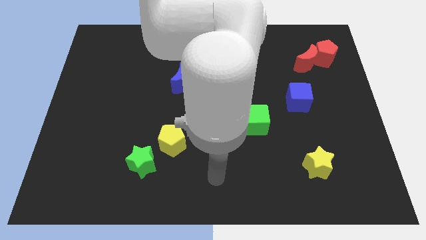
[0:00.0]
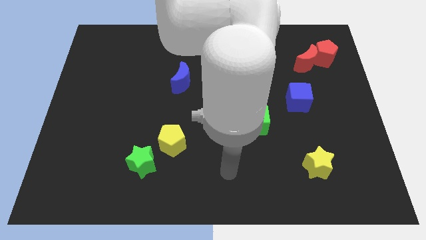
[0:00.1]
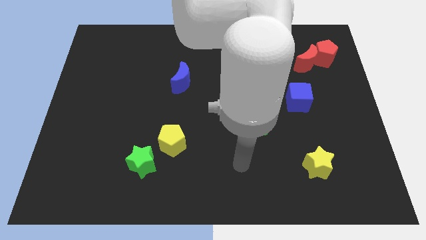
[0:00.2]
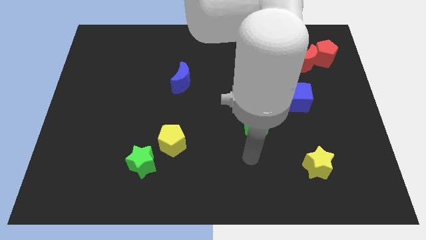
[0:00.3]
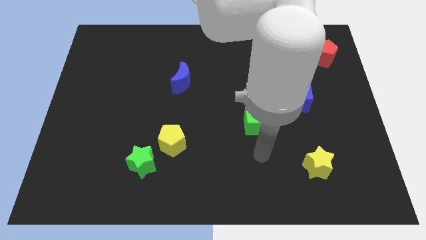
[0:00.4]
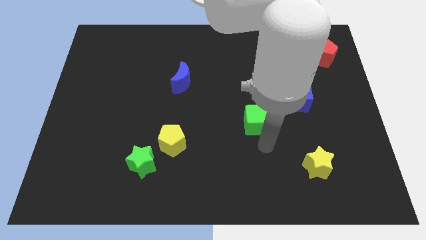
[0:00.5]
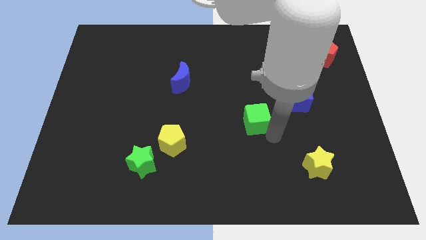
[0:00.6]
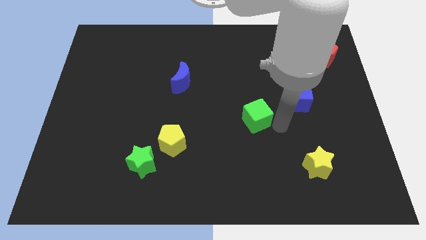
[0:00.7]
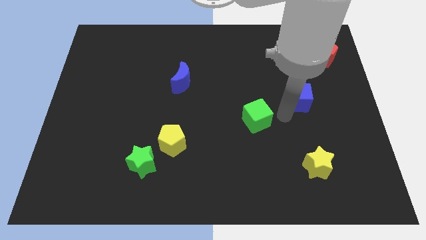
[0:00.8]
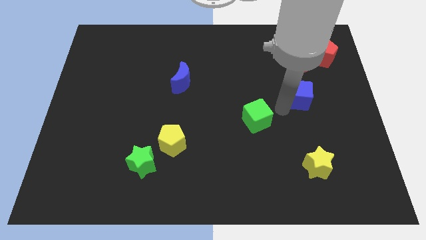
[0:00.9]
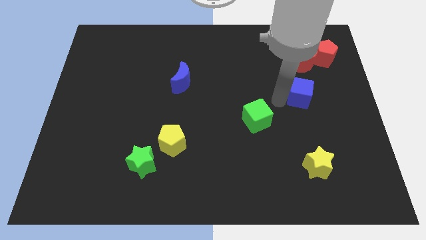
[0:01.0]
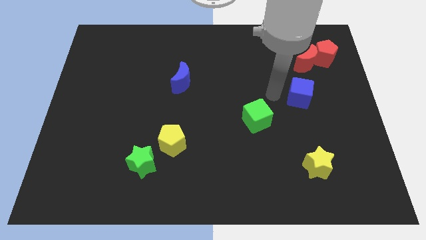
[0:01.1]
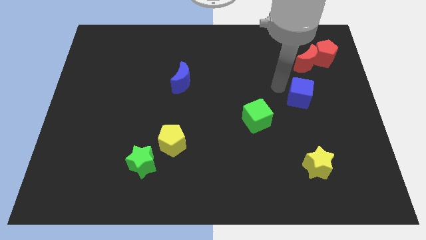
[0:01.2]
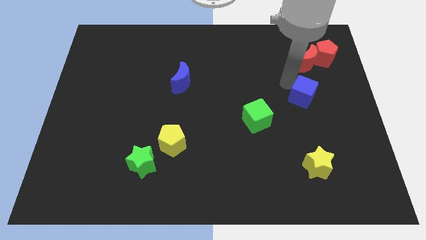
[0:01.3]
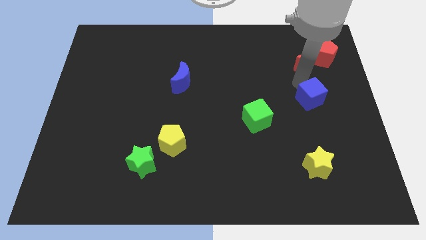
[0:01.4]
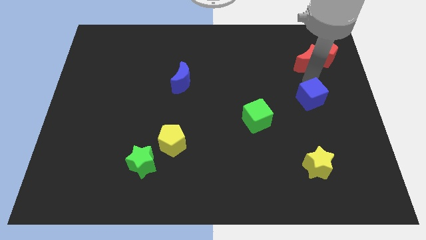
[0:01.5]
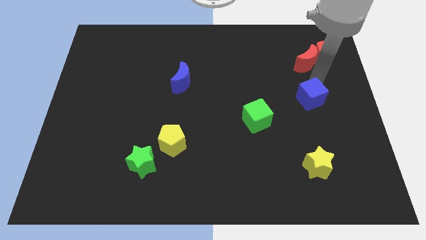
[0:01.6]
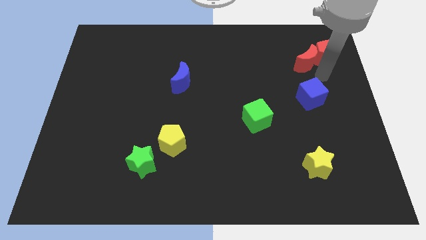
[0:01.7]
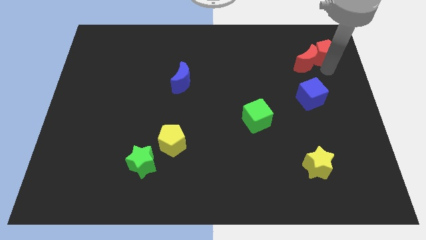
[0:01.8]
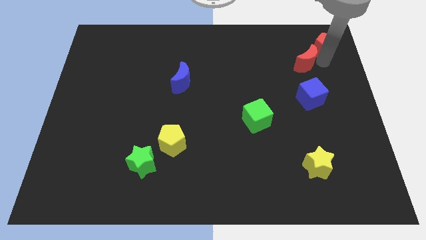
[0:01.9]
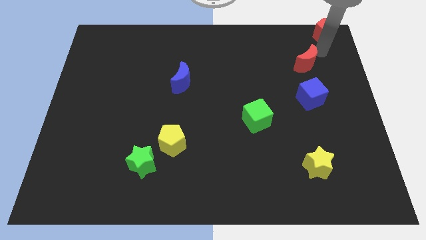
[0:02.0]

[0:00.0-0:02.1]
move the red moon away from the red pentagon

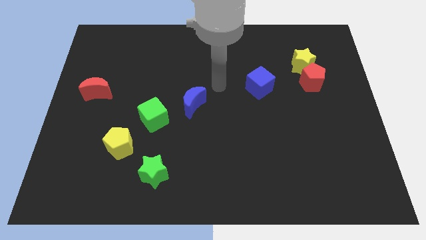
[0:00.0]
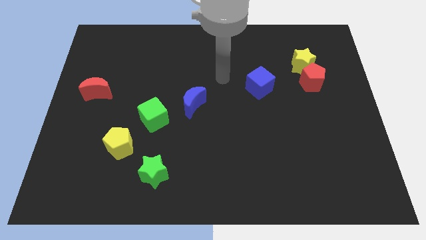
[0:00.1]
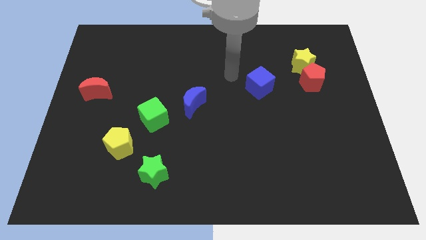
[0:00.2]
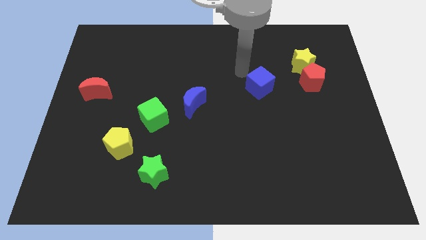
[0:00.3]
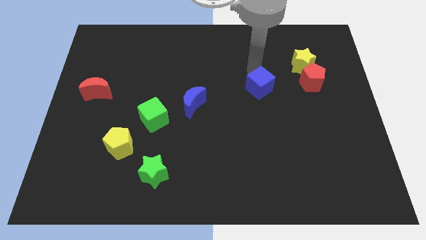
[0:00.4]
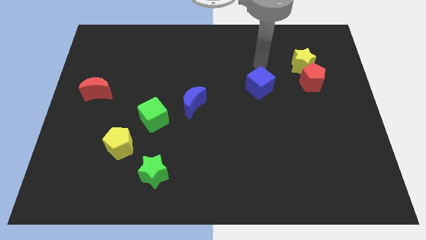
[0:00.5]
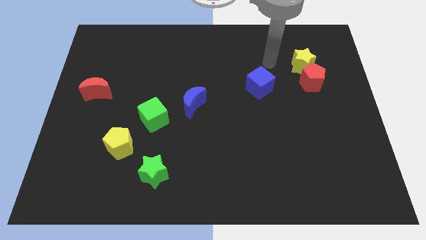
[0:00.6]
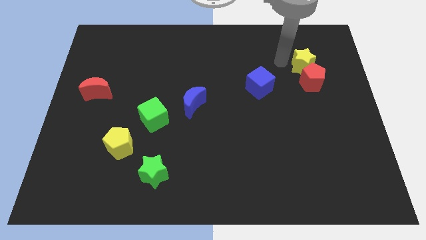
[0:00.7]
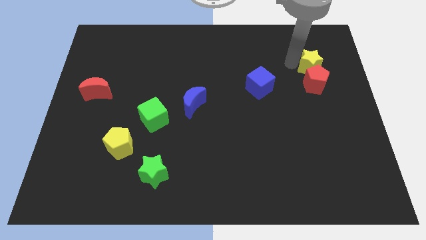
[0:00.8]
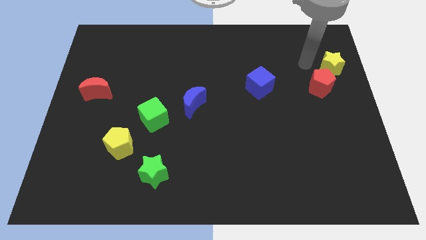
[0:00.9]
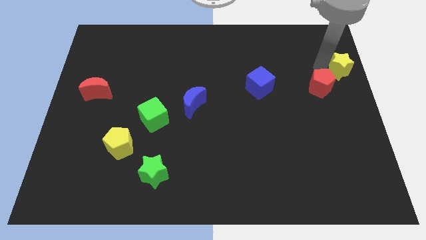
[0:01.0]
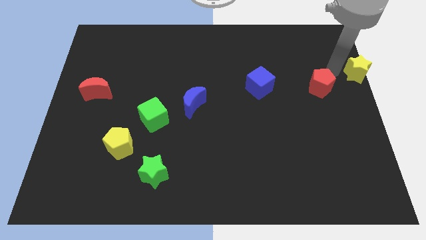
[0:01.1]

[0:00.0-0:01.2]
separate the red pentagon from the yellow star

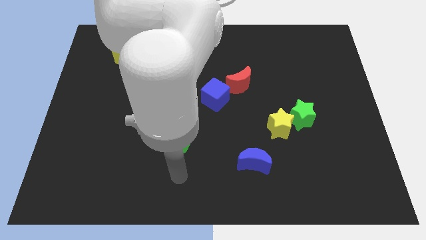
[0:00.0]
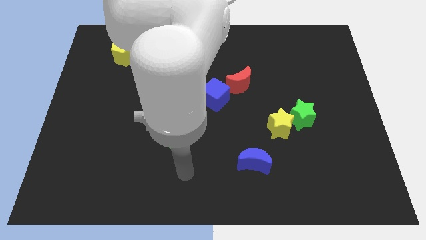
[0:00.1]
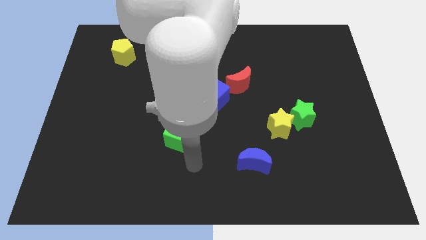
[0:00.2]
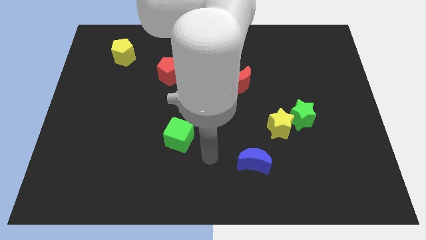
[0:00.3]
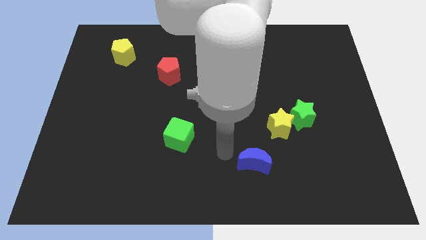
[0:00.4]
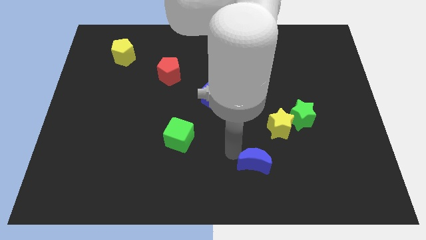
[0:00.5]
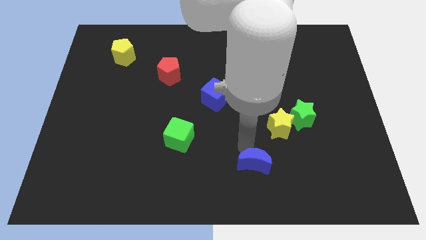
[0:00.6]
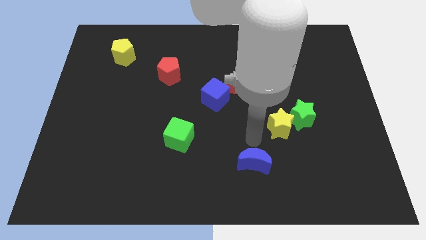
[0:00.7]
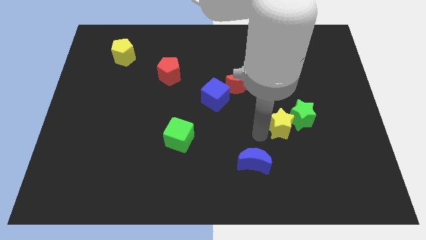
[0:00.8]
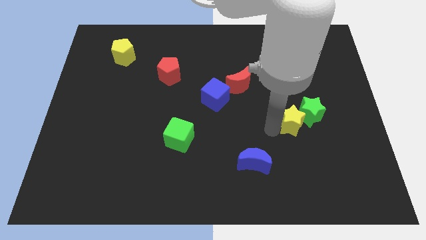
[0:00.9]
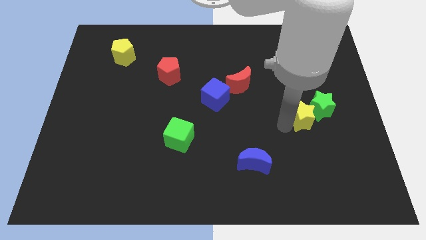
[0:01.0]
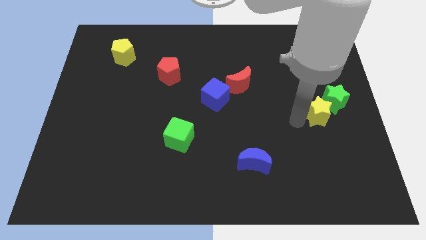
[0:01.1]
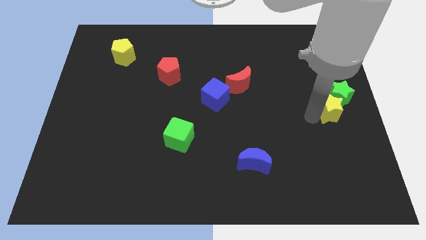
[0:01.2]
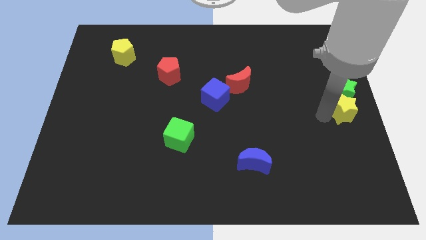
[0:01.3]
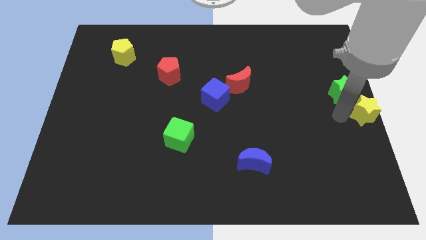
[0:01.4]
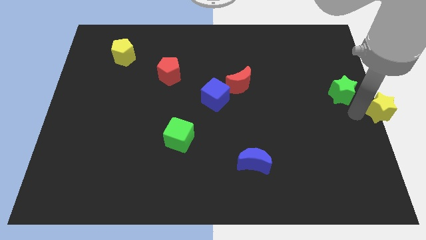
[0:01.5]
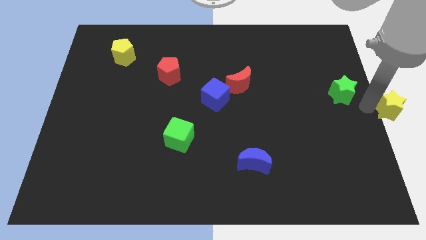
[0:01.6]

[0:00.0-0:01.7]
pull the green star apart from the yellow star

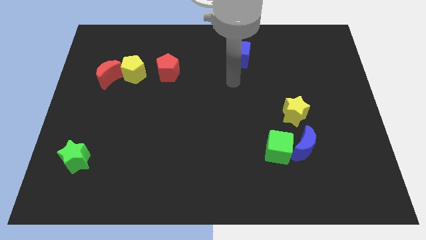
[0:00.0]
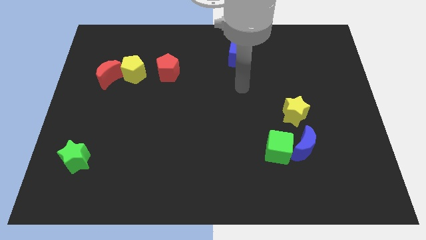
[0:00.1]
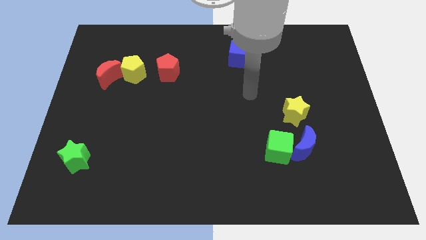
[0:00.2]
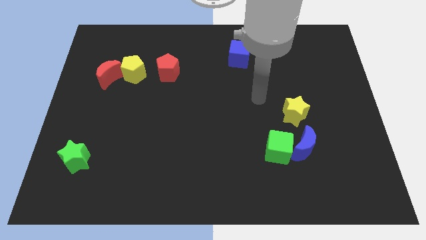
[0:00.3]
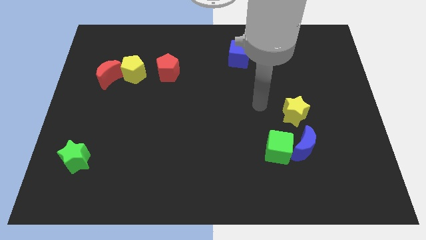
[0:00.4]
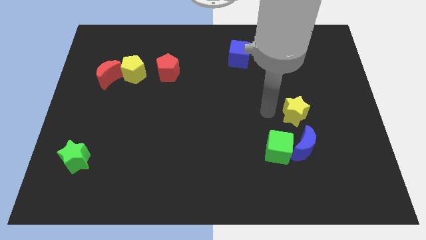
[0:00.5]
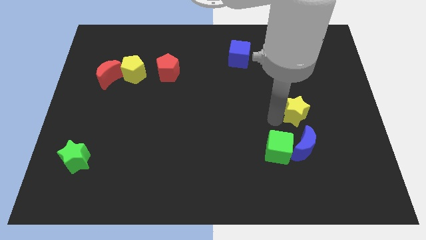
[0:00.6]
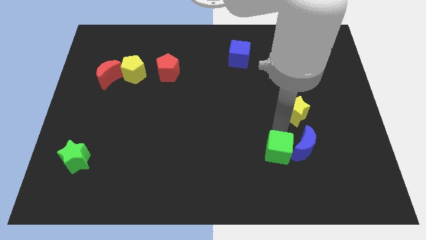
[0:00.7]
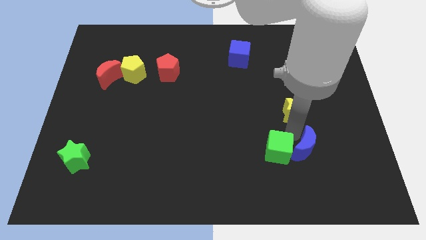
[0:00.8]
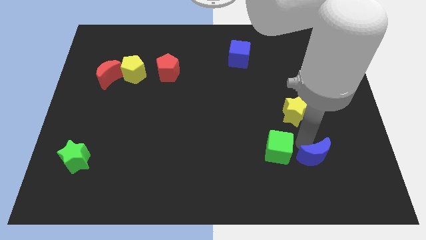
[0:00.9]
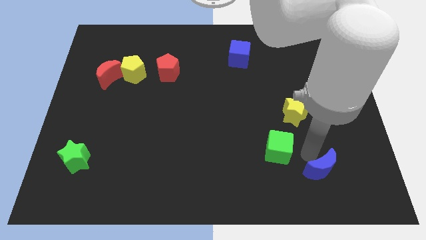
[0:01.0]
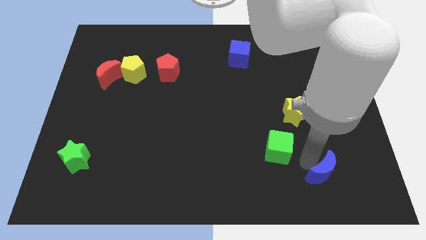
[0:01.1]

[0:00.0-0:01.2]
pull the green cube apart from the blue moon

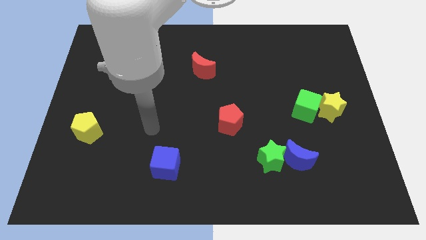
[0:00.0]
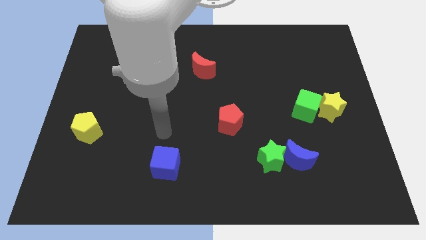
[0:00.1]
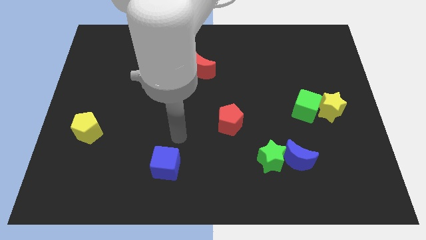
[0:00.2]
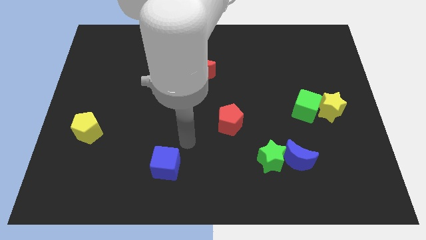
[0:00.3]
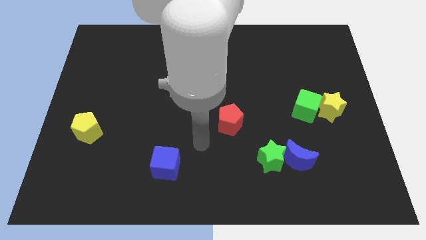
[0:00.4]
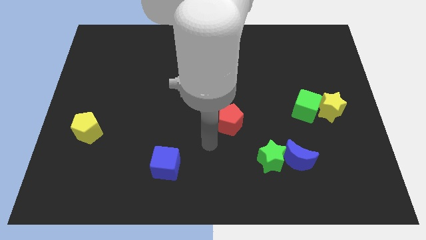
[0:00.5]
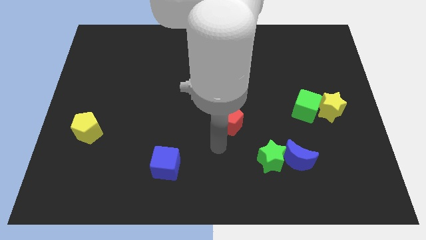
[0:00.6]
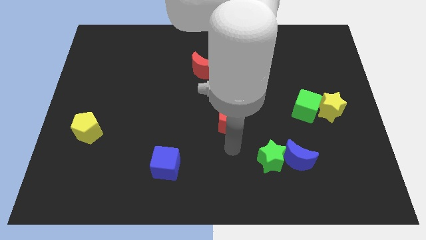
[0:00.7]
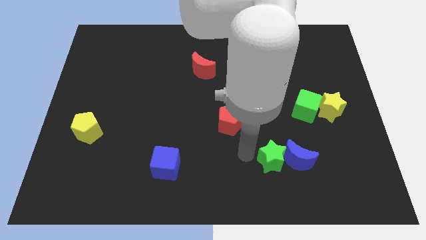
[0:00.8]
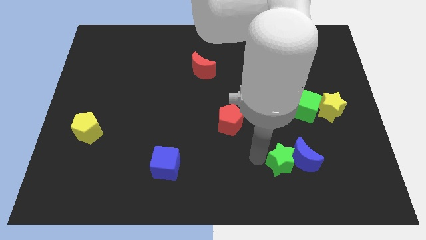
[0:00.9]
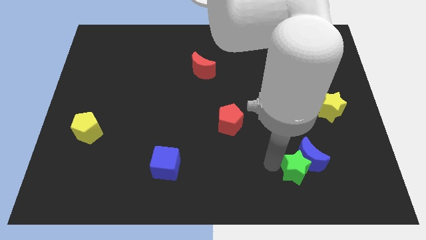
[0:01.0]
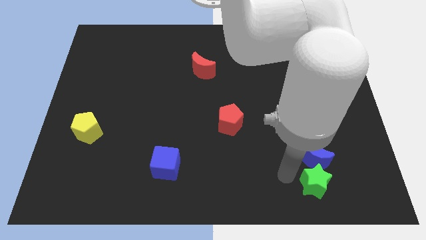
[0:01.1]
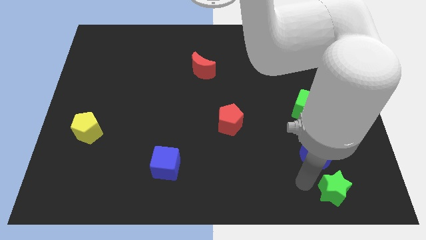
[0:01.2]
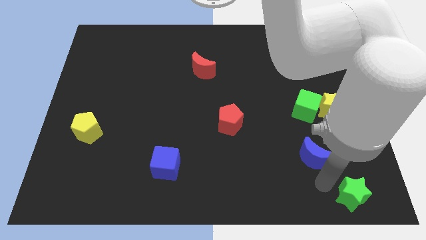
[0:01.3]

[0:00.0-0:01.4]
pull the blue moon apart from the green star

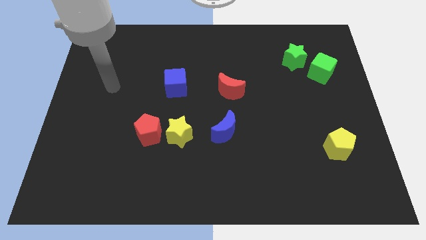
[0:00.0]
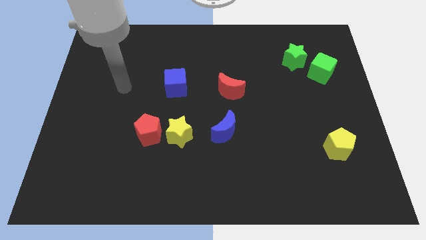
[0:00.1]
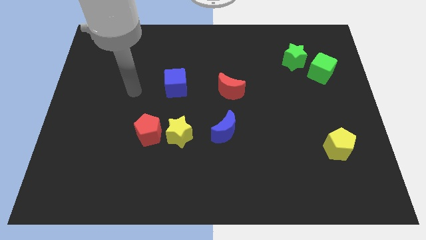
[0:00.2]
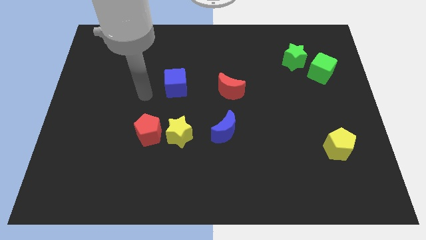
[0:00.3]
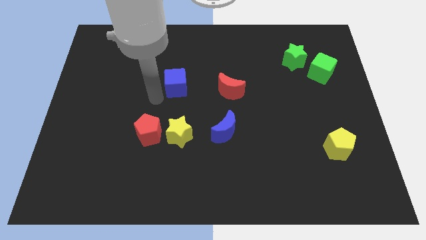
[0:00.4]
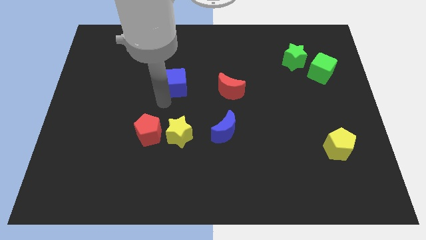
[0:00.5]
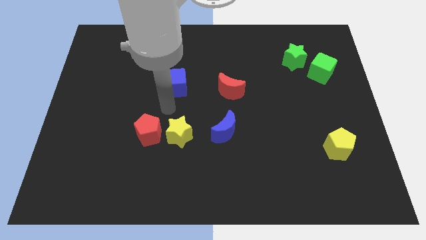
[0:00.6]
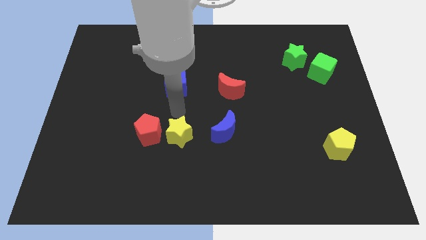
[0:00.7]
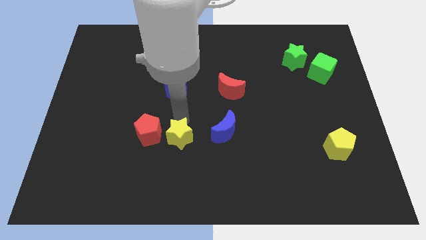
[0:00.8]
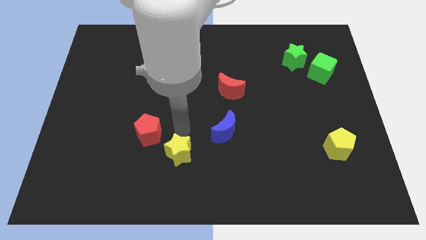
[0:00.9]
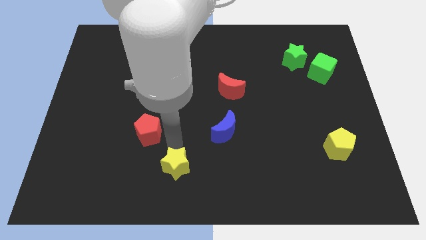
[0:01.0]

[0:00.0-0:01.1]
pull the red pentagon apart from the yellow star

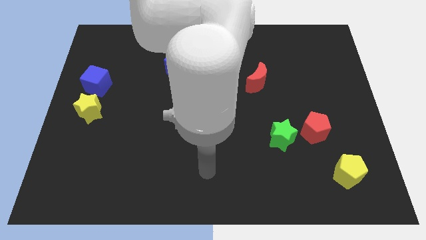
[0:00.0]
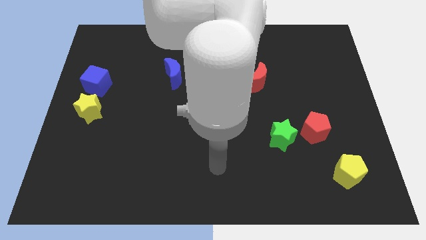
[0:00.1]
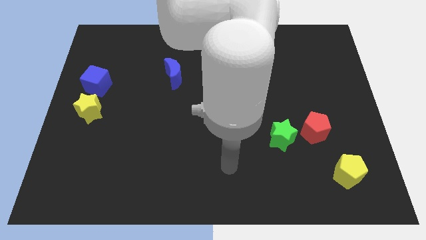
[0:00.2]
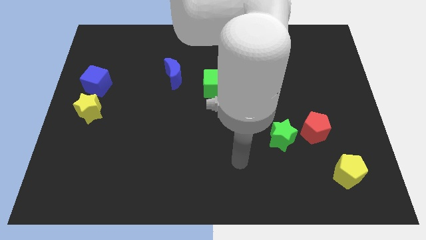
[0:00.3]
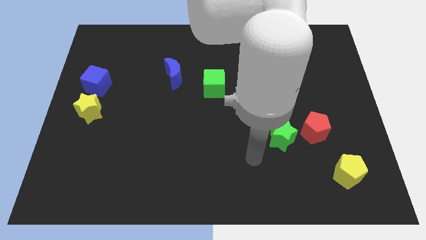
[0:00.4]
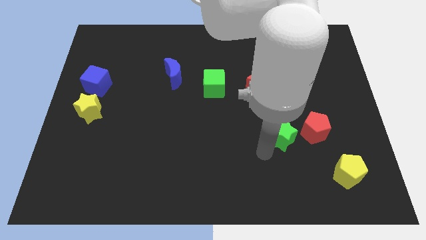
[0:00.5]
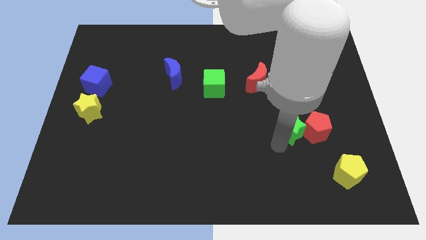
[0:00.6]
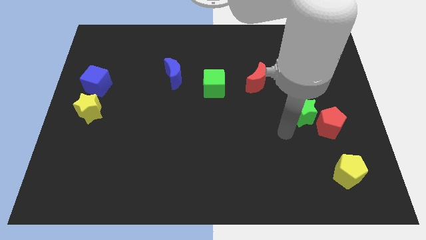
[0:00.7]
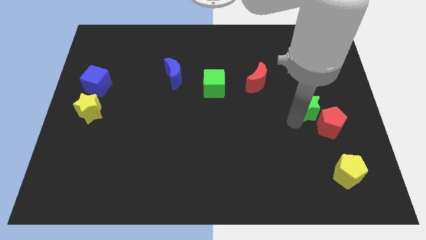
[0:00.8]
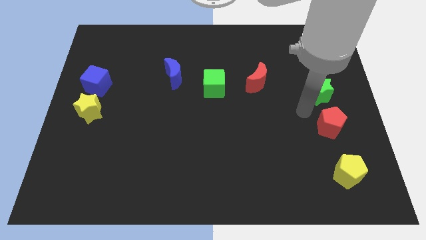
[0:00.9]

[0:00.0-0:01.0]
move the red pentagon away from the green star
